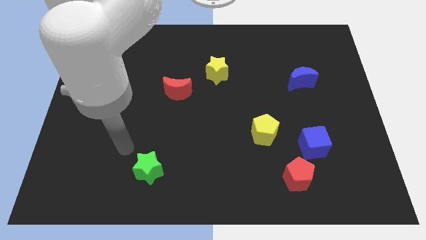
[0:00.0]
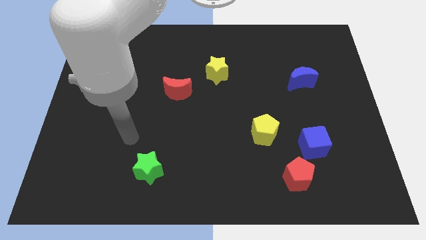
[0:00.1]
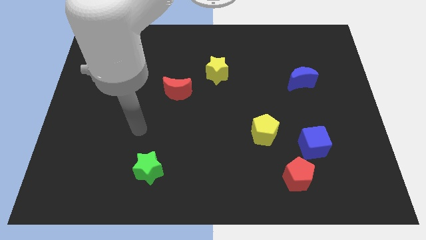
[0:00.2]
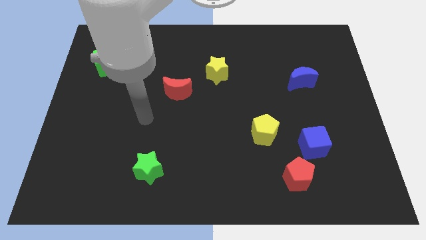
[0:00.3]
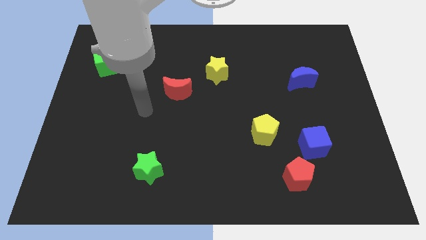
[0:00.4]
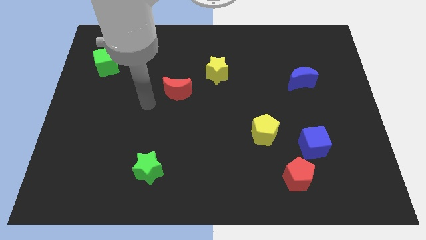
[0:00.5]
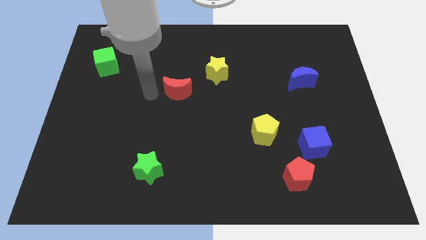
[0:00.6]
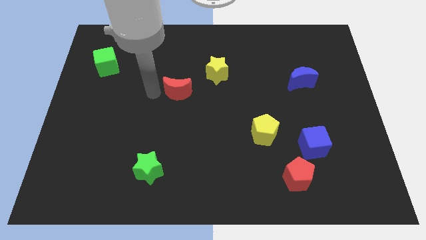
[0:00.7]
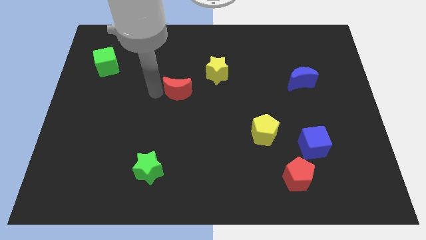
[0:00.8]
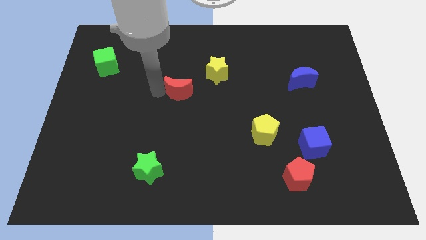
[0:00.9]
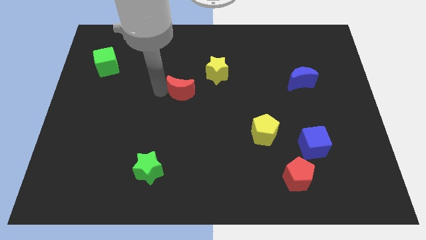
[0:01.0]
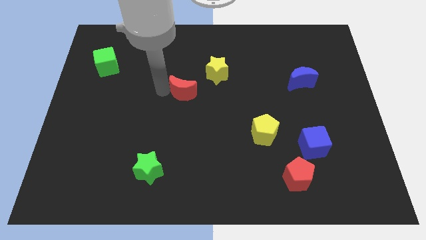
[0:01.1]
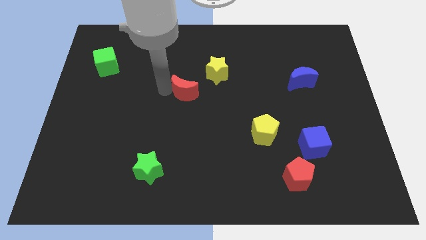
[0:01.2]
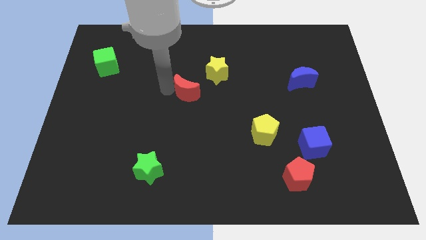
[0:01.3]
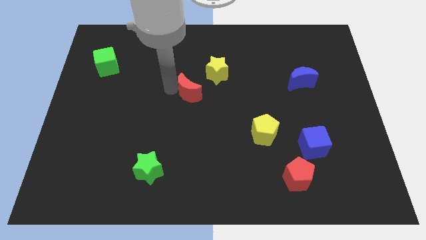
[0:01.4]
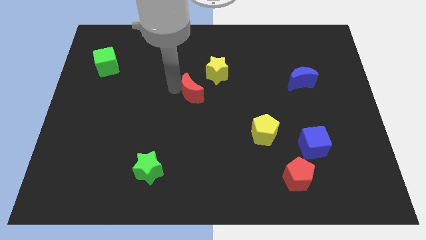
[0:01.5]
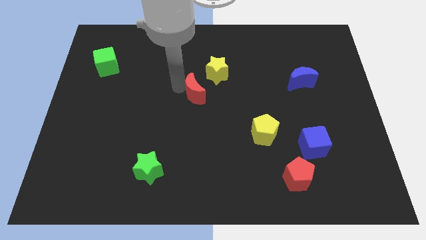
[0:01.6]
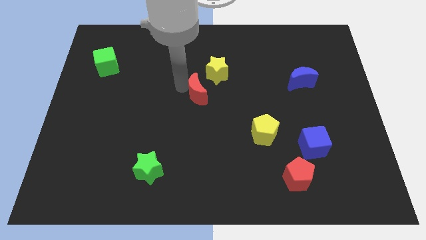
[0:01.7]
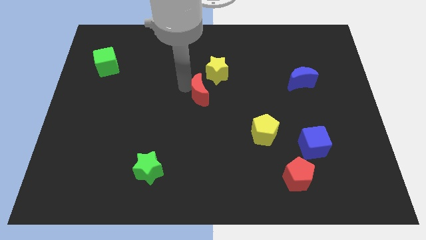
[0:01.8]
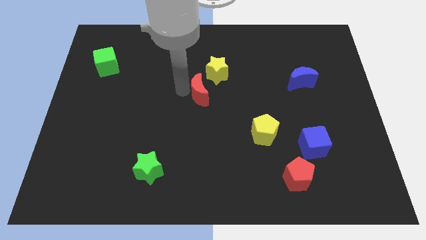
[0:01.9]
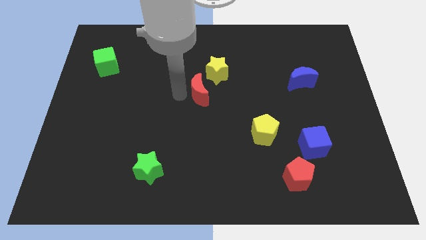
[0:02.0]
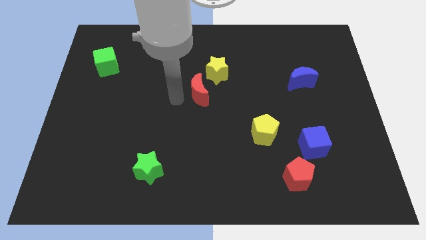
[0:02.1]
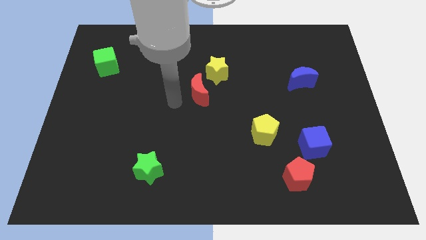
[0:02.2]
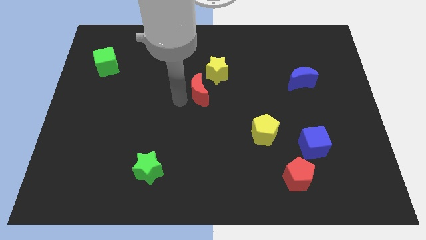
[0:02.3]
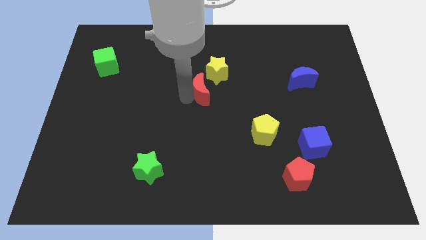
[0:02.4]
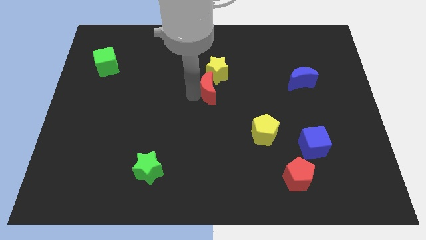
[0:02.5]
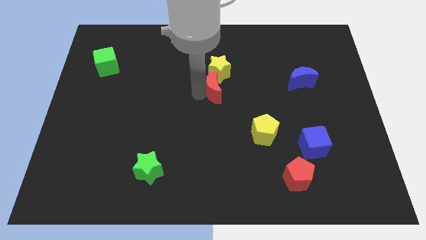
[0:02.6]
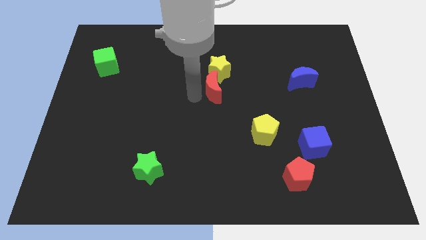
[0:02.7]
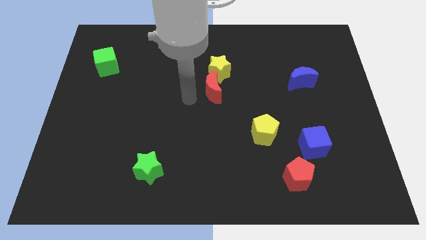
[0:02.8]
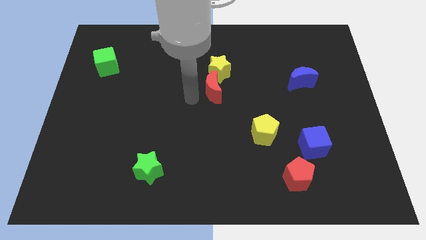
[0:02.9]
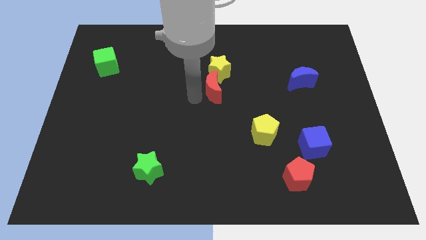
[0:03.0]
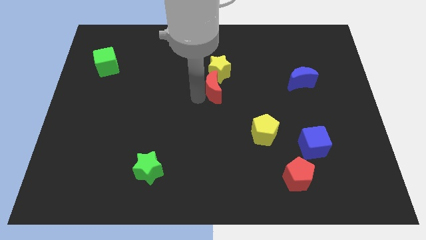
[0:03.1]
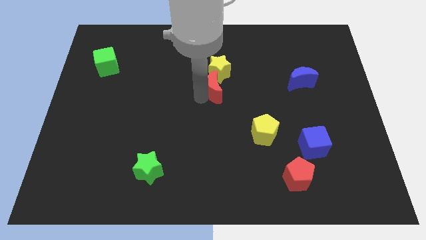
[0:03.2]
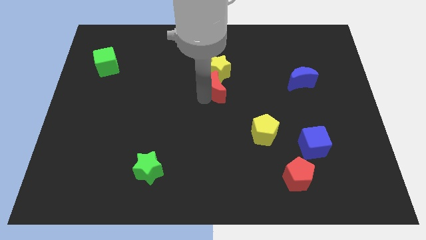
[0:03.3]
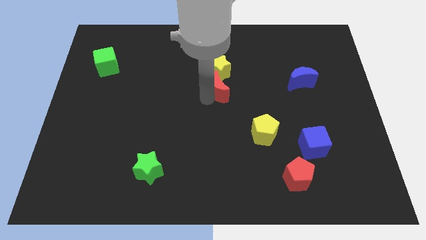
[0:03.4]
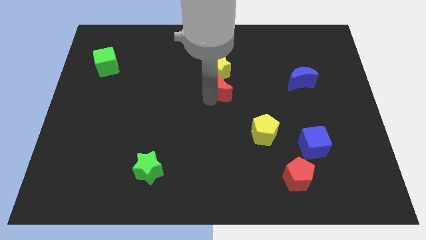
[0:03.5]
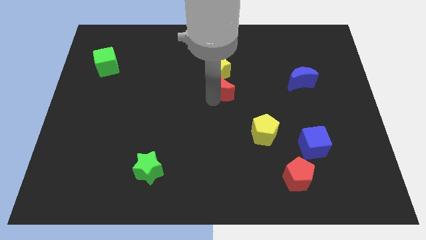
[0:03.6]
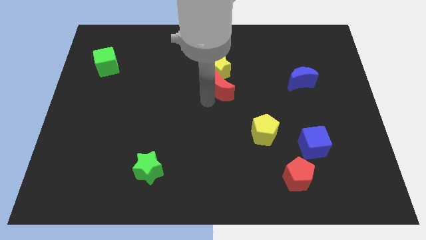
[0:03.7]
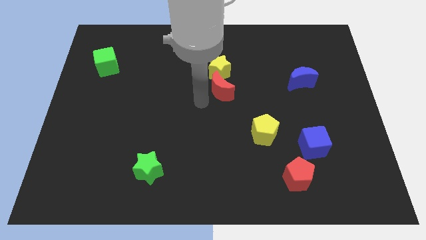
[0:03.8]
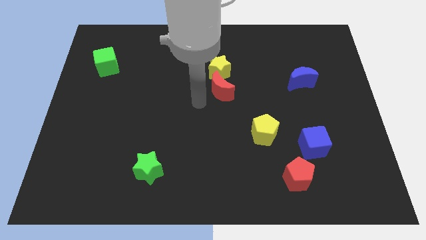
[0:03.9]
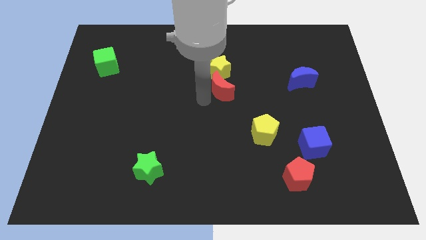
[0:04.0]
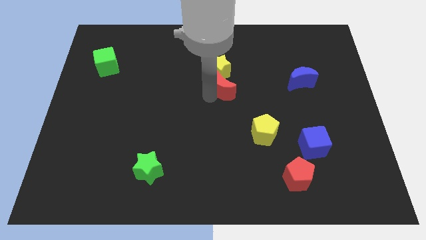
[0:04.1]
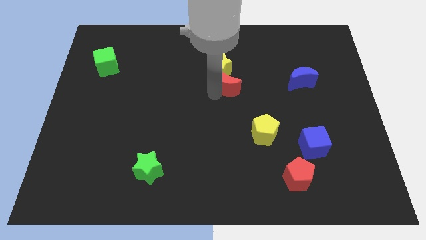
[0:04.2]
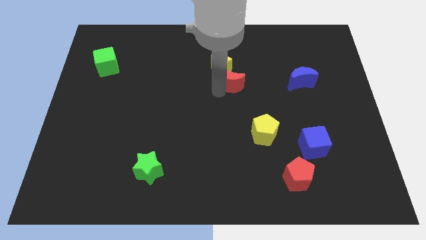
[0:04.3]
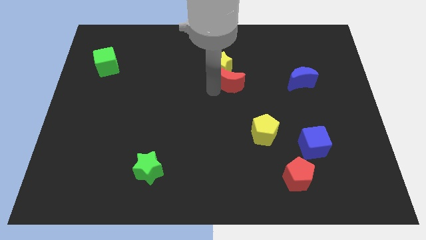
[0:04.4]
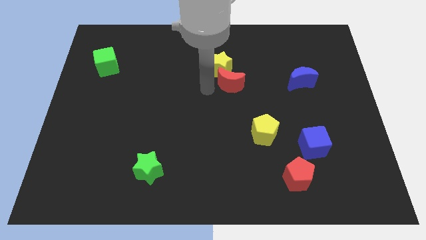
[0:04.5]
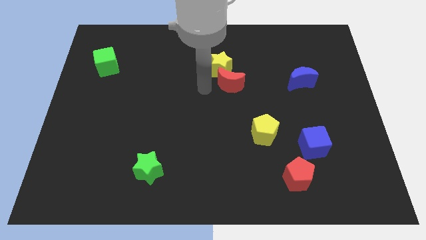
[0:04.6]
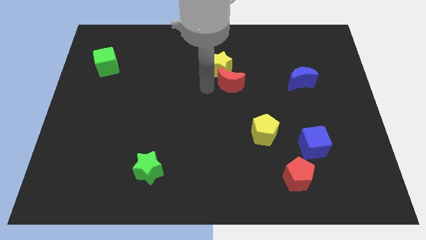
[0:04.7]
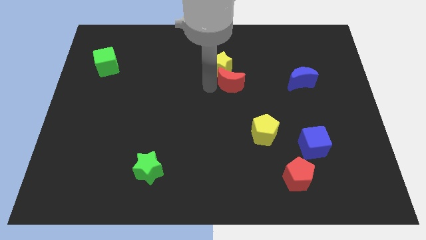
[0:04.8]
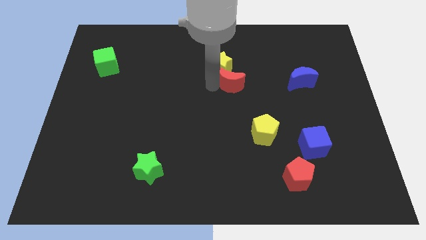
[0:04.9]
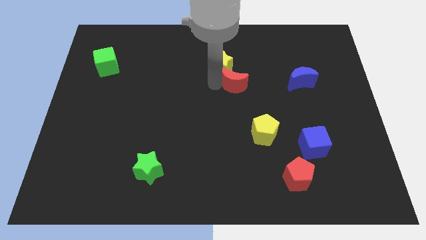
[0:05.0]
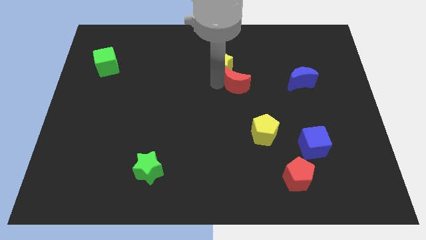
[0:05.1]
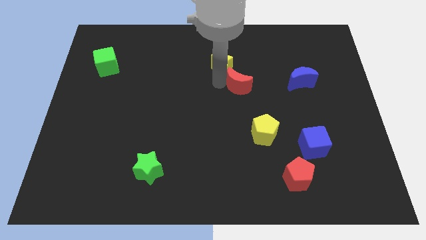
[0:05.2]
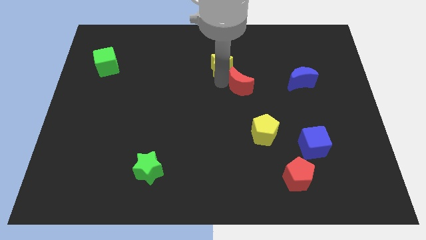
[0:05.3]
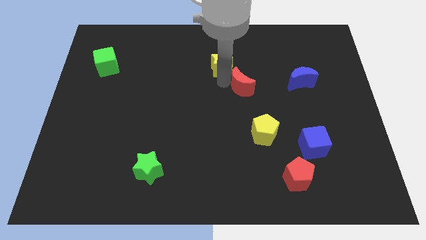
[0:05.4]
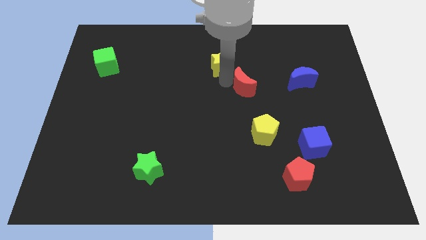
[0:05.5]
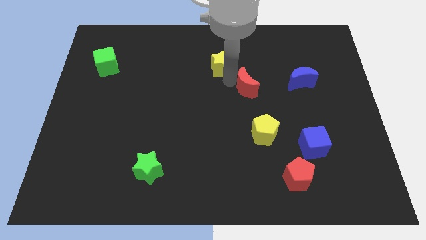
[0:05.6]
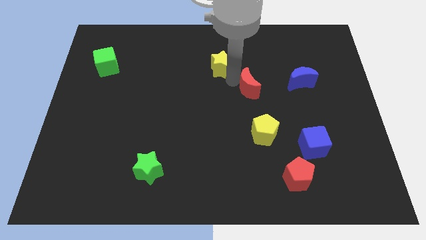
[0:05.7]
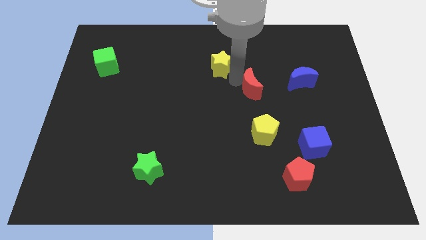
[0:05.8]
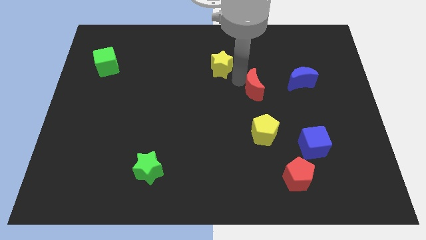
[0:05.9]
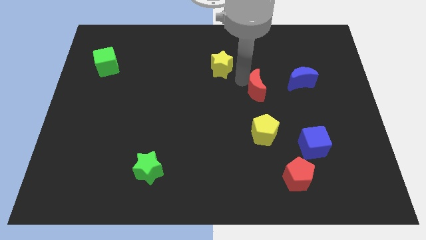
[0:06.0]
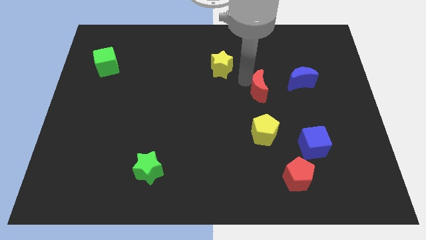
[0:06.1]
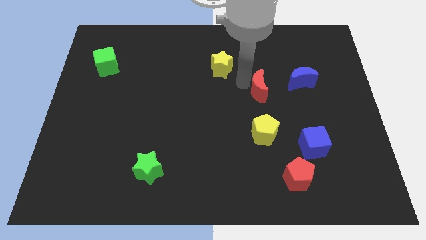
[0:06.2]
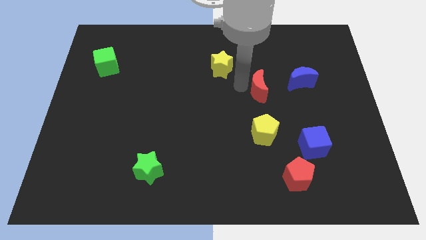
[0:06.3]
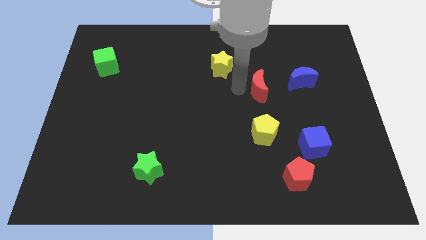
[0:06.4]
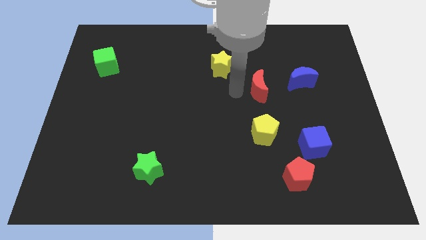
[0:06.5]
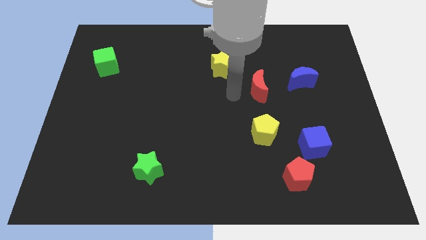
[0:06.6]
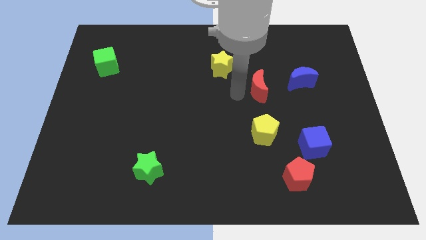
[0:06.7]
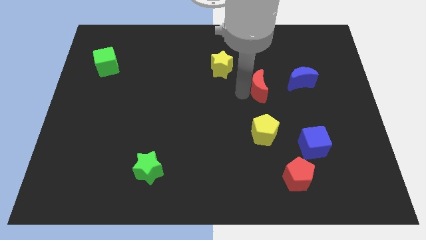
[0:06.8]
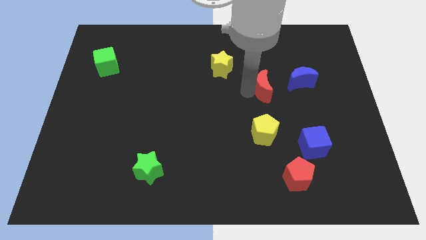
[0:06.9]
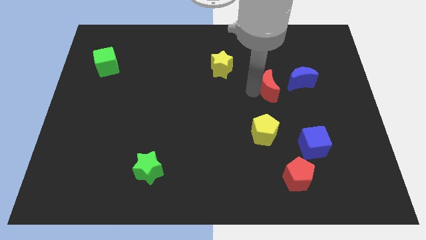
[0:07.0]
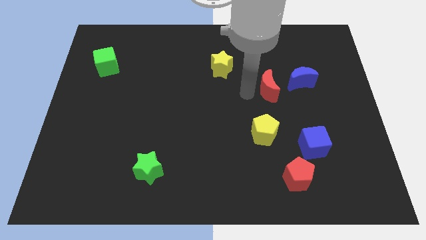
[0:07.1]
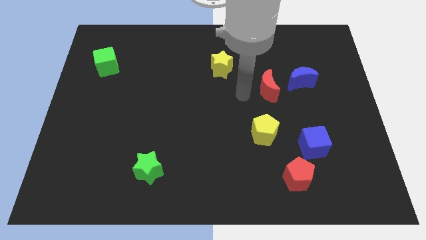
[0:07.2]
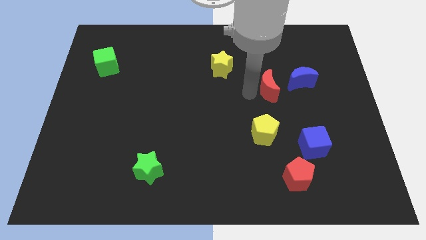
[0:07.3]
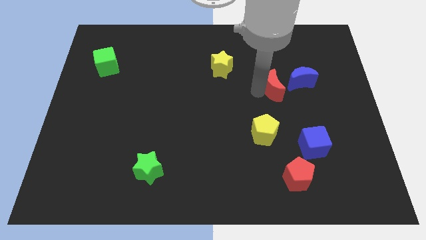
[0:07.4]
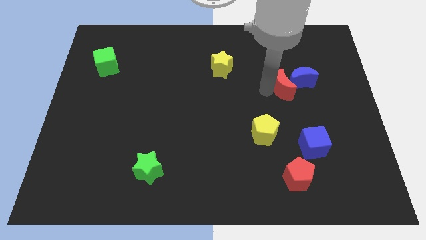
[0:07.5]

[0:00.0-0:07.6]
push the red moon next to the blue moon
